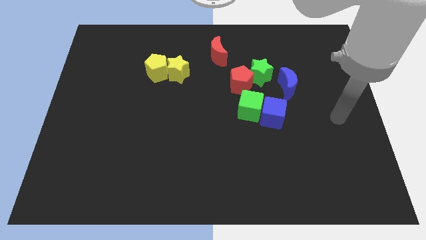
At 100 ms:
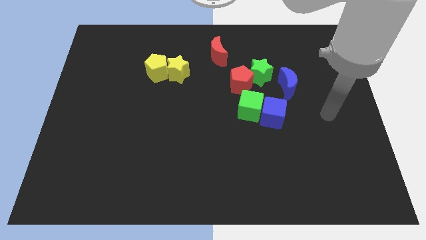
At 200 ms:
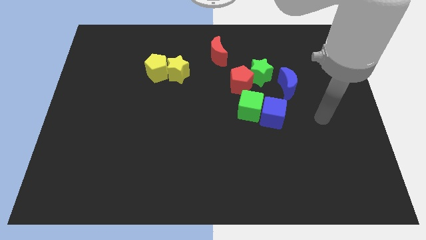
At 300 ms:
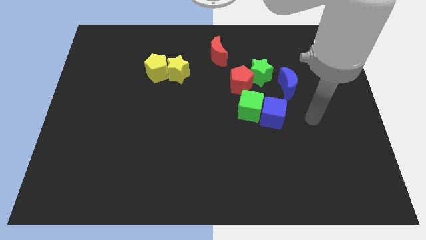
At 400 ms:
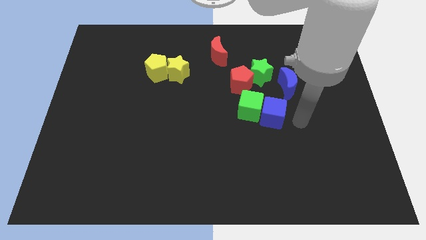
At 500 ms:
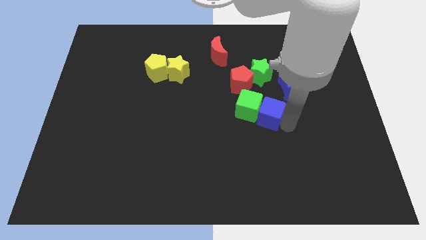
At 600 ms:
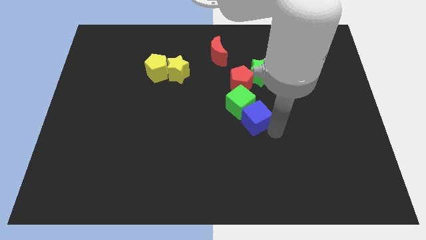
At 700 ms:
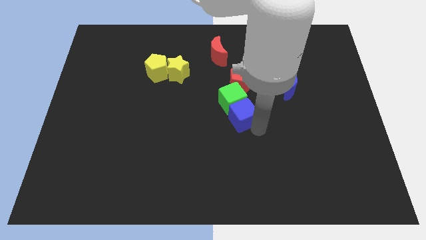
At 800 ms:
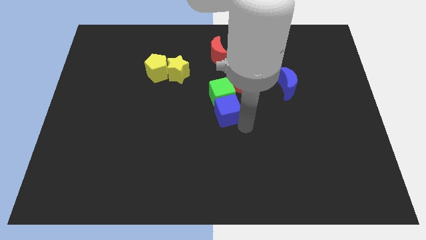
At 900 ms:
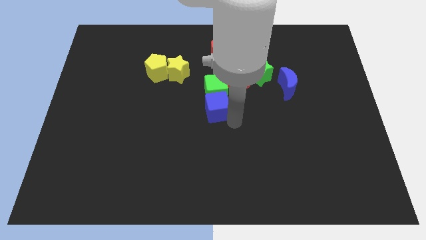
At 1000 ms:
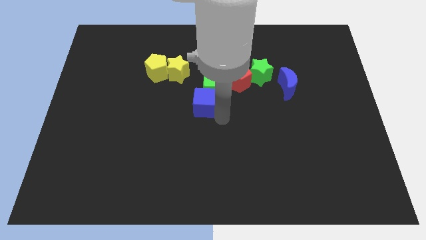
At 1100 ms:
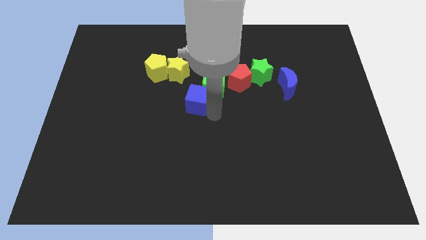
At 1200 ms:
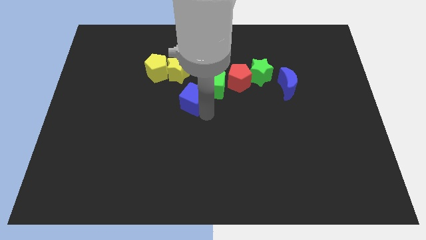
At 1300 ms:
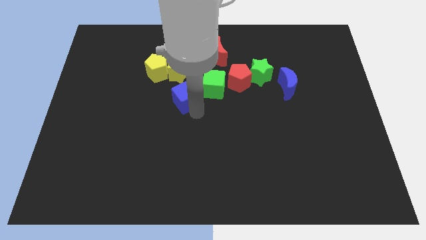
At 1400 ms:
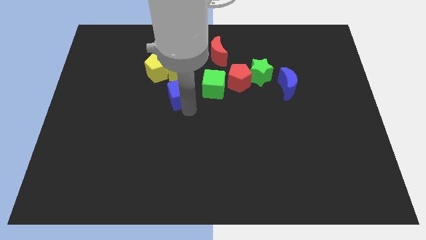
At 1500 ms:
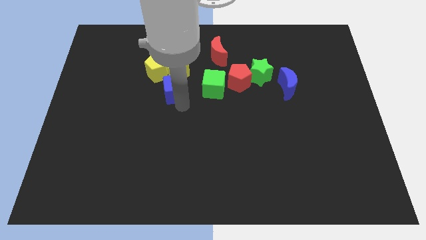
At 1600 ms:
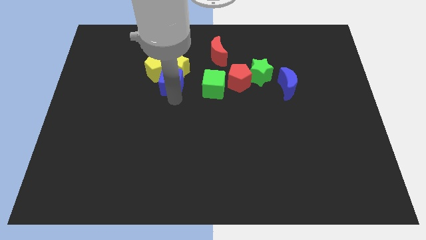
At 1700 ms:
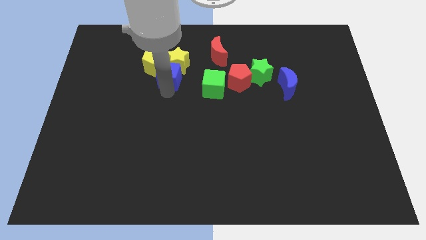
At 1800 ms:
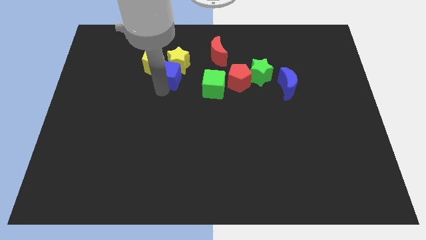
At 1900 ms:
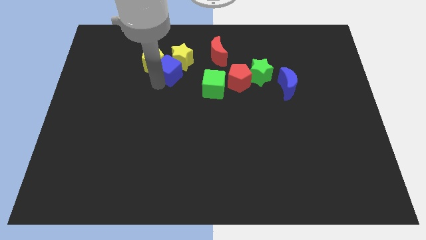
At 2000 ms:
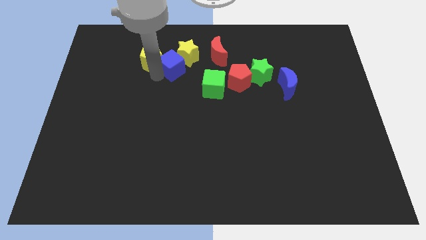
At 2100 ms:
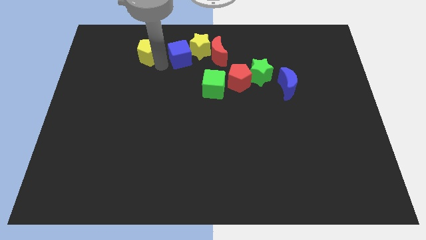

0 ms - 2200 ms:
move the yellow star away from the yellow pentagon

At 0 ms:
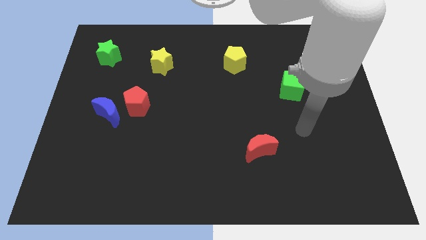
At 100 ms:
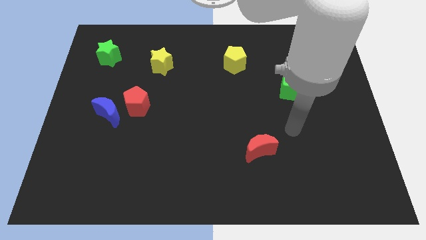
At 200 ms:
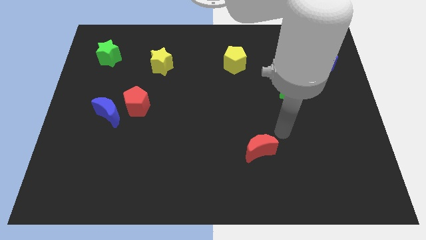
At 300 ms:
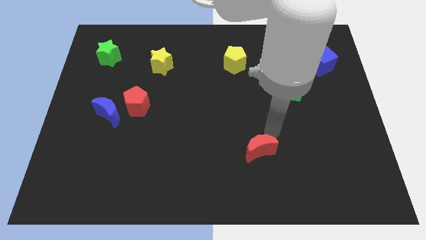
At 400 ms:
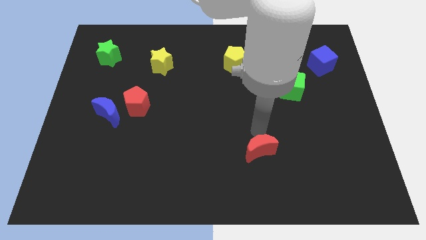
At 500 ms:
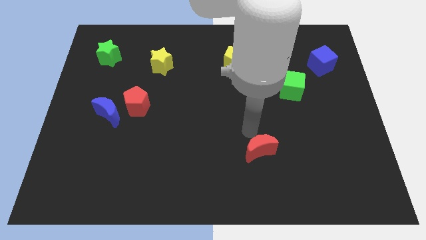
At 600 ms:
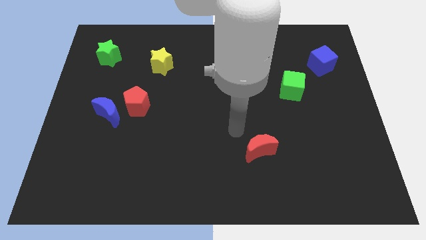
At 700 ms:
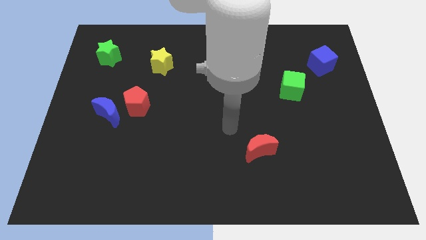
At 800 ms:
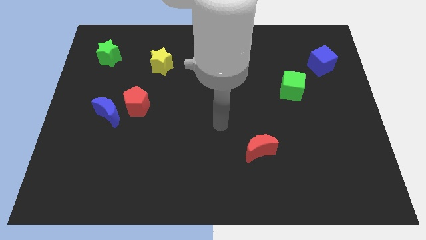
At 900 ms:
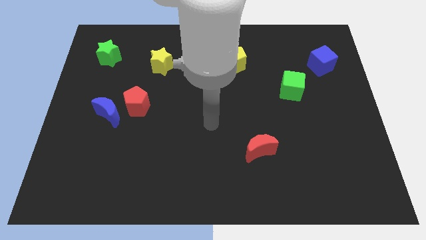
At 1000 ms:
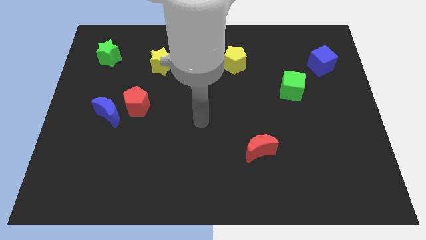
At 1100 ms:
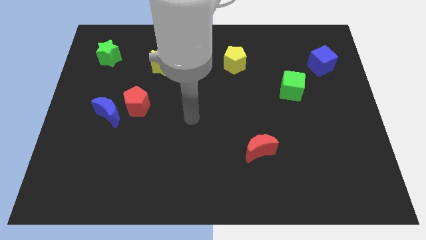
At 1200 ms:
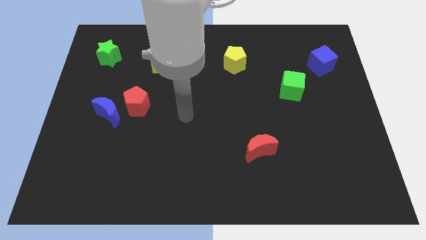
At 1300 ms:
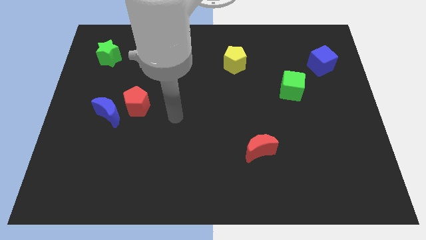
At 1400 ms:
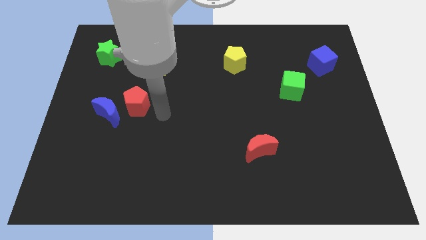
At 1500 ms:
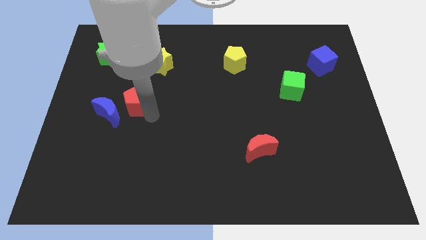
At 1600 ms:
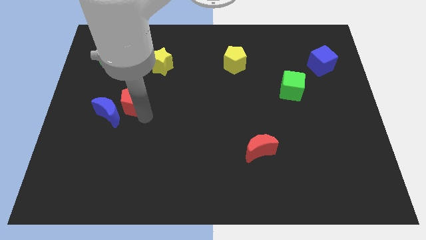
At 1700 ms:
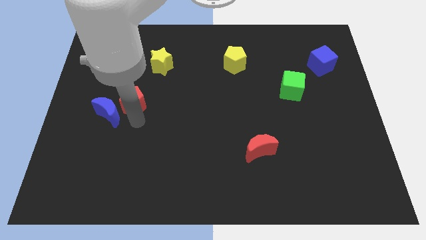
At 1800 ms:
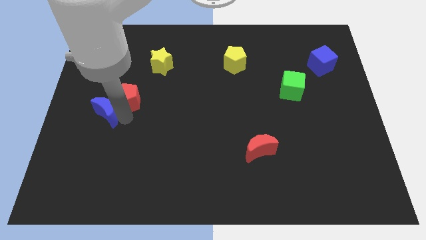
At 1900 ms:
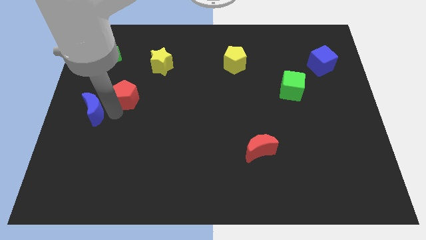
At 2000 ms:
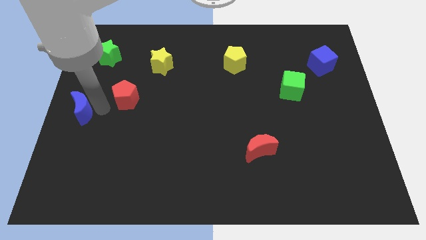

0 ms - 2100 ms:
move the red pentagon away from the blue moon

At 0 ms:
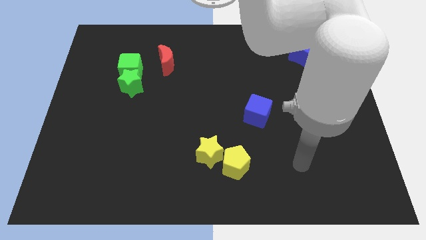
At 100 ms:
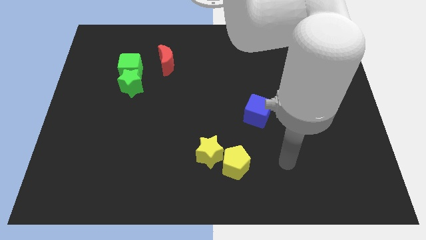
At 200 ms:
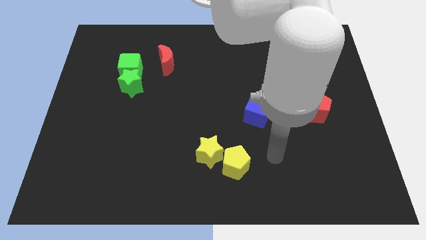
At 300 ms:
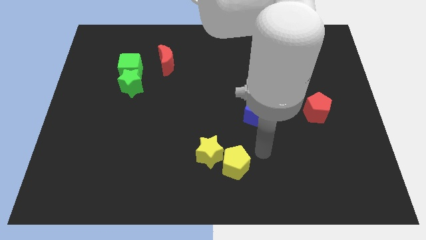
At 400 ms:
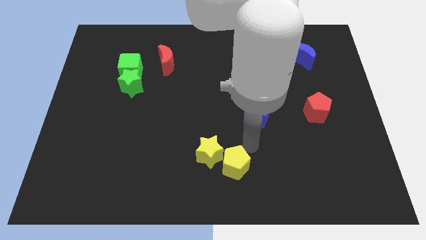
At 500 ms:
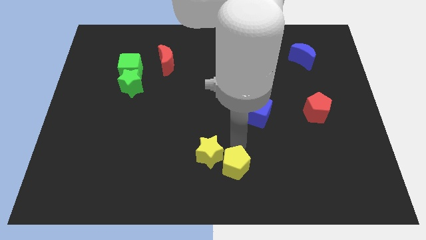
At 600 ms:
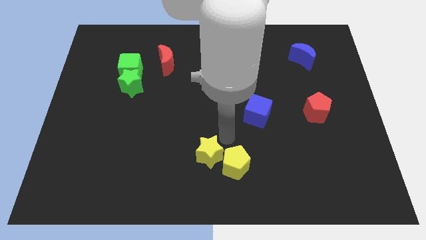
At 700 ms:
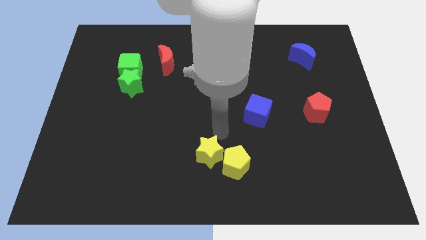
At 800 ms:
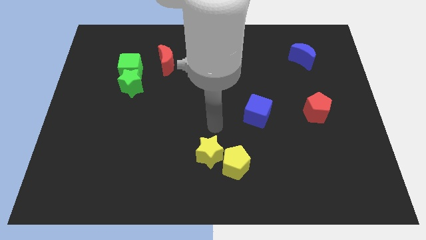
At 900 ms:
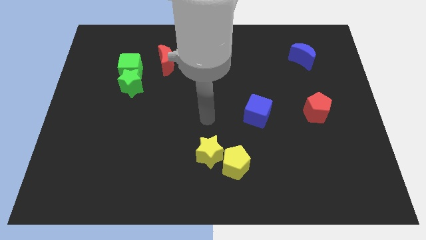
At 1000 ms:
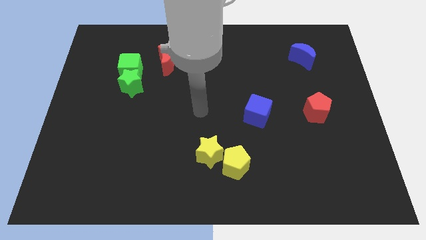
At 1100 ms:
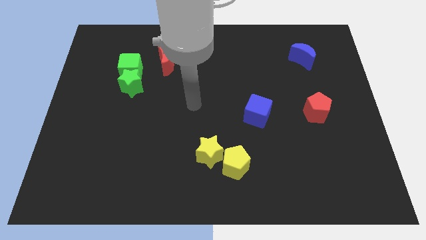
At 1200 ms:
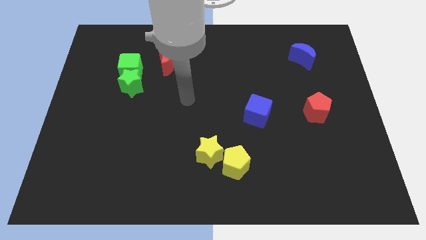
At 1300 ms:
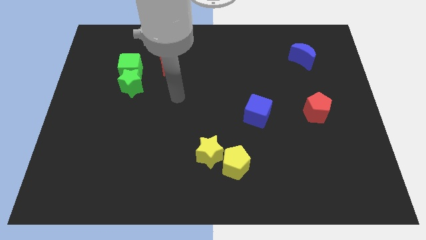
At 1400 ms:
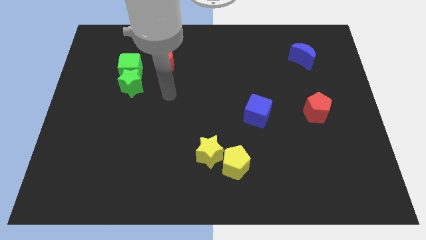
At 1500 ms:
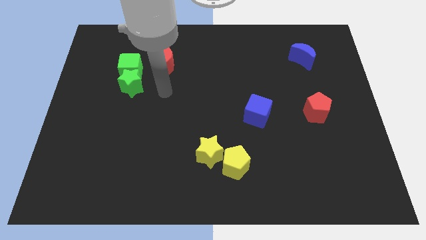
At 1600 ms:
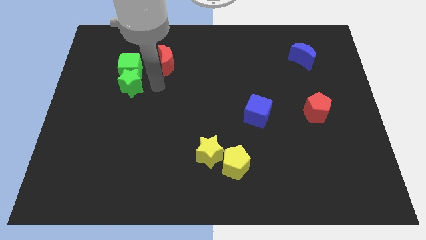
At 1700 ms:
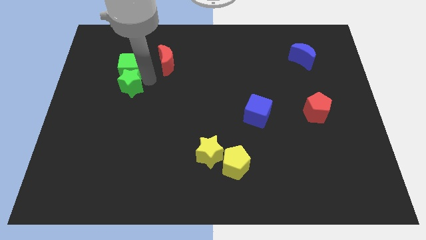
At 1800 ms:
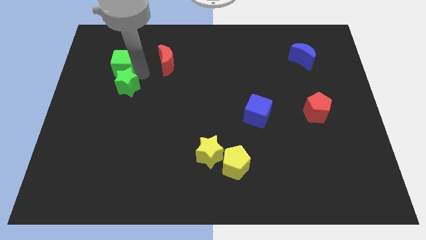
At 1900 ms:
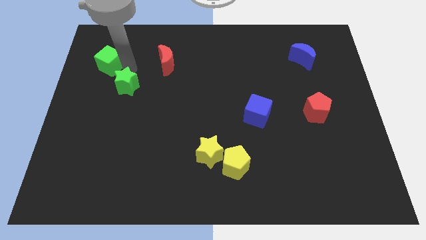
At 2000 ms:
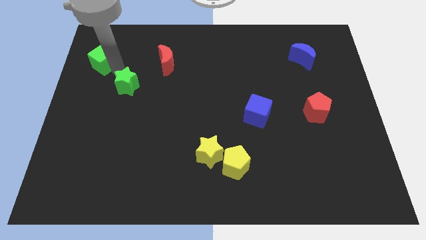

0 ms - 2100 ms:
move the green star away from the green cube

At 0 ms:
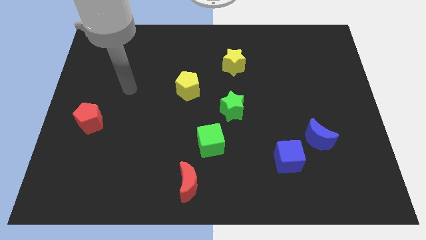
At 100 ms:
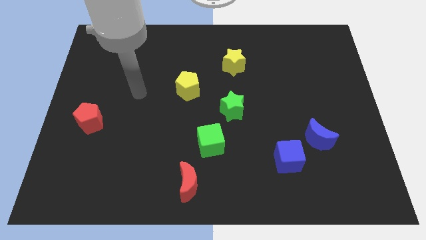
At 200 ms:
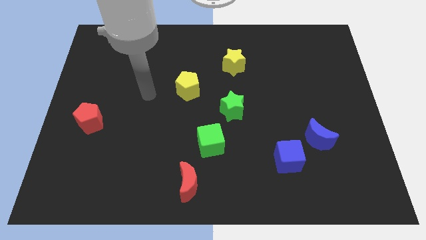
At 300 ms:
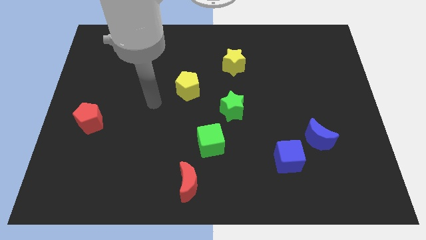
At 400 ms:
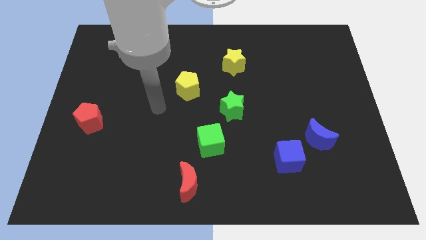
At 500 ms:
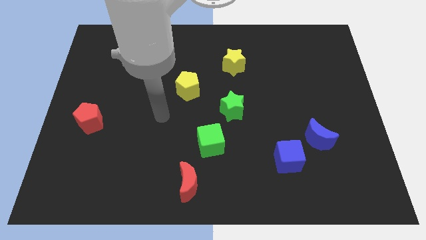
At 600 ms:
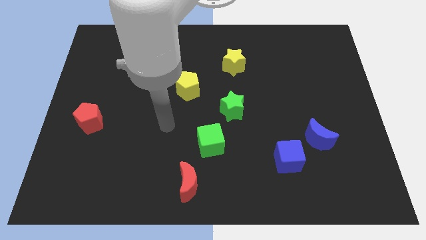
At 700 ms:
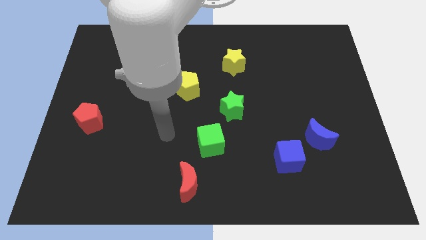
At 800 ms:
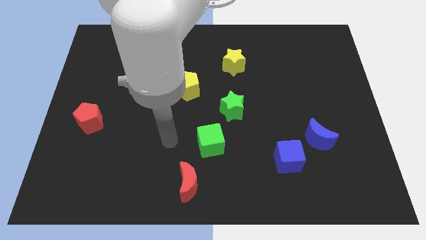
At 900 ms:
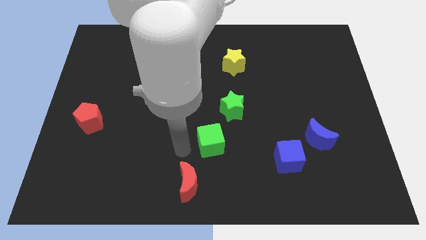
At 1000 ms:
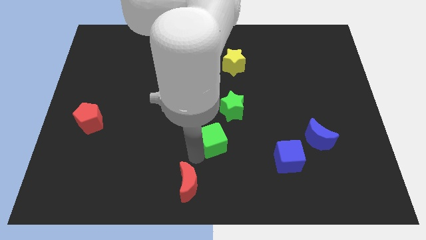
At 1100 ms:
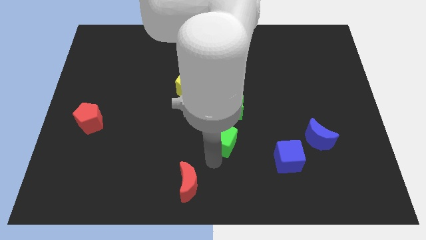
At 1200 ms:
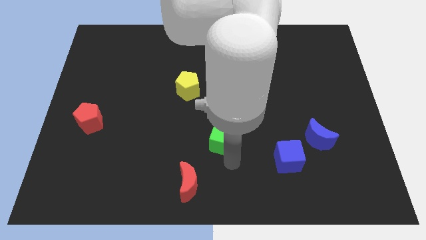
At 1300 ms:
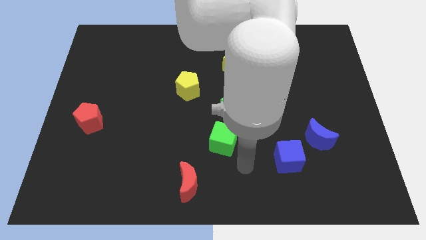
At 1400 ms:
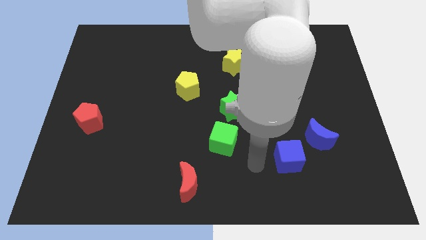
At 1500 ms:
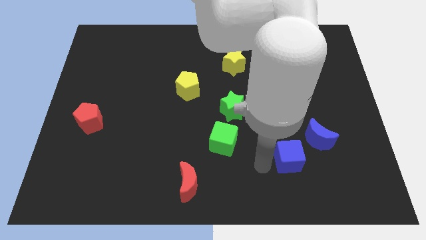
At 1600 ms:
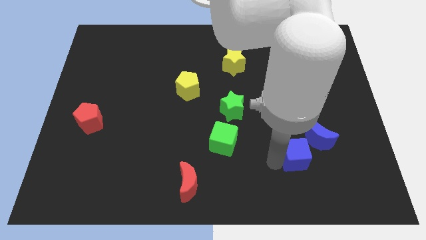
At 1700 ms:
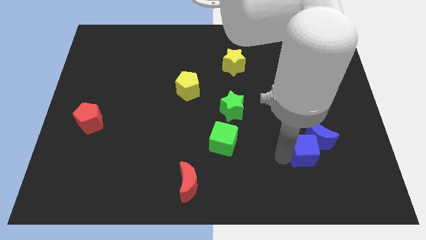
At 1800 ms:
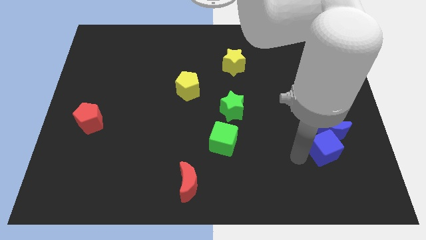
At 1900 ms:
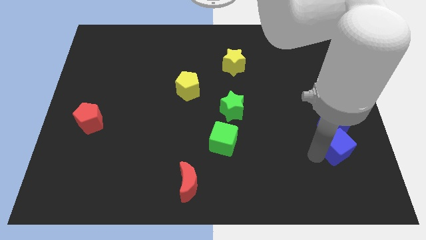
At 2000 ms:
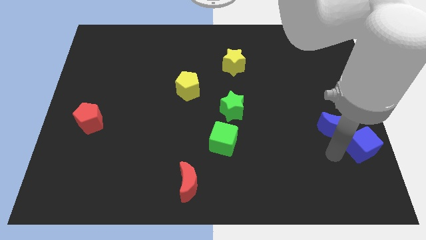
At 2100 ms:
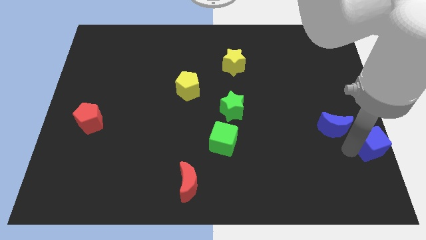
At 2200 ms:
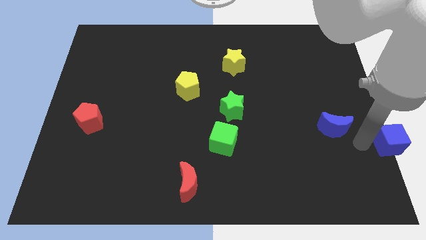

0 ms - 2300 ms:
separate the blue moon from the blue cube

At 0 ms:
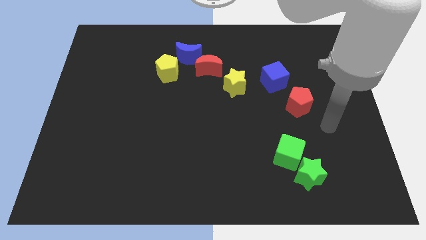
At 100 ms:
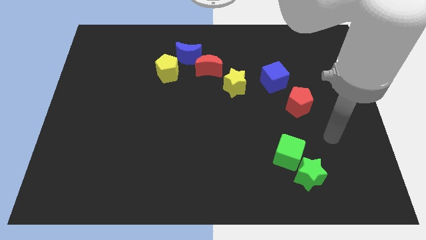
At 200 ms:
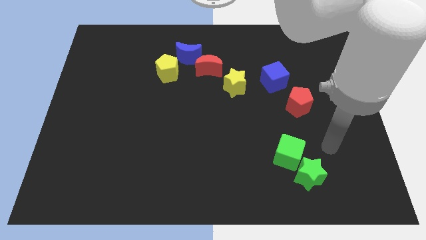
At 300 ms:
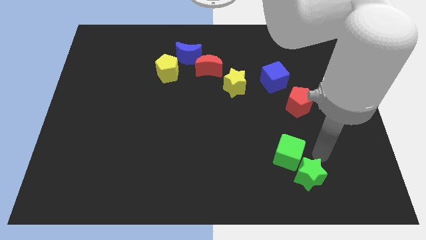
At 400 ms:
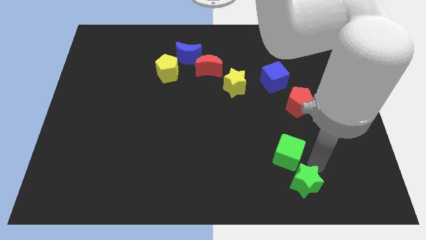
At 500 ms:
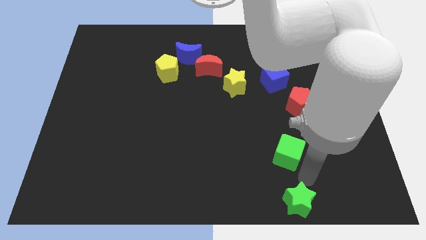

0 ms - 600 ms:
move the green cube away from the green star

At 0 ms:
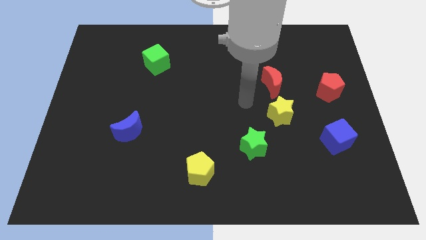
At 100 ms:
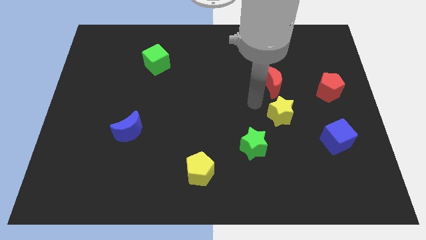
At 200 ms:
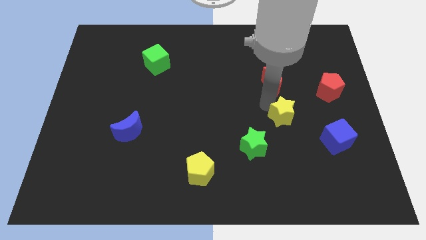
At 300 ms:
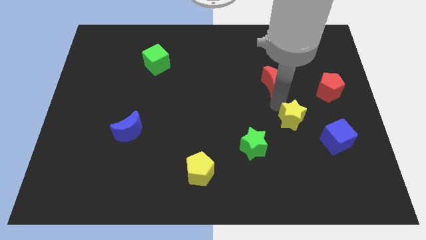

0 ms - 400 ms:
pull the red moon apart from the yellow star
